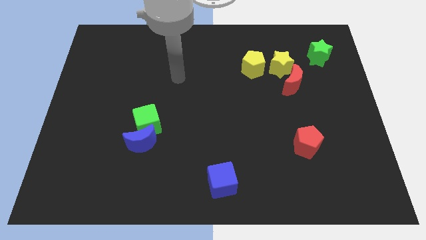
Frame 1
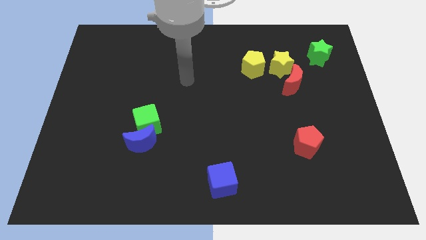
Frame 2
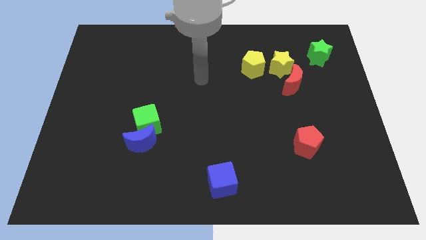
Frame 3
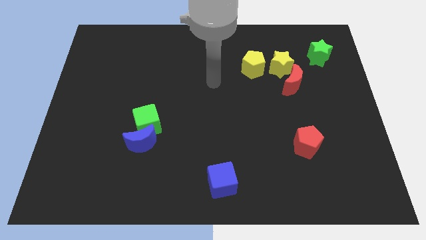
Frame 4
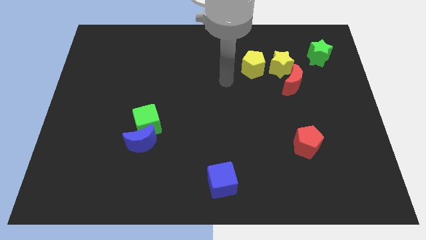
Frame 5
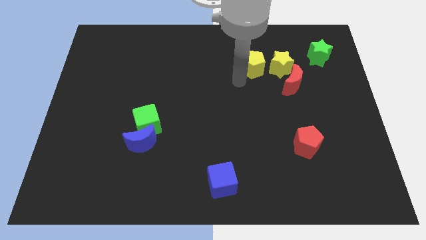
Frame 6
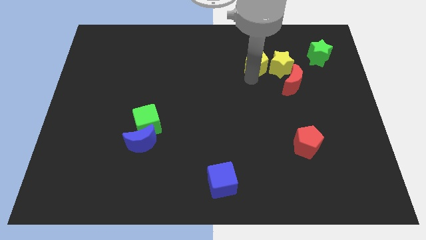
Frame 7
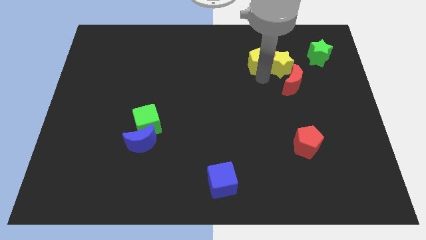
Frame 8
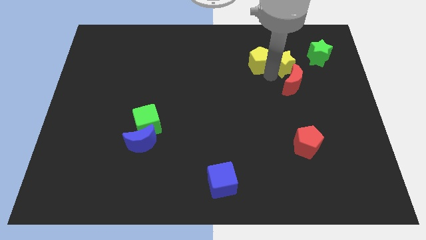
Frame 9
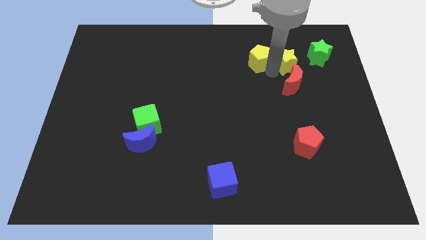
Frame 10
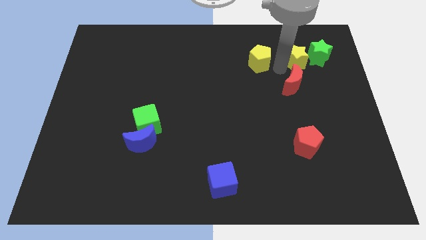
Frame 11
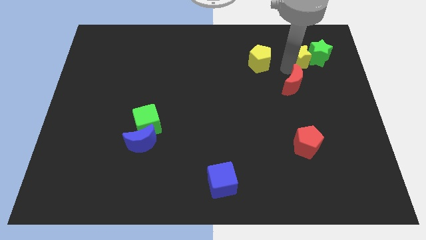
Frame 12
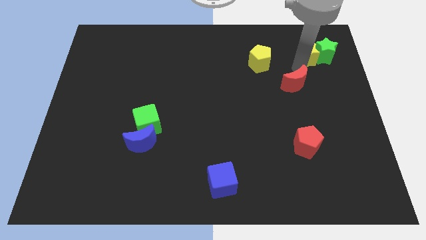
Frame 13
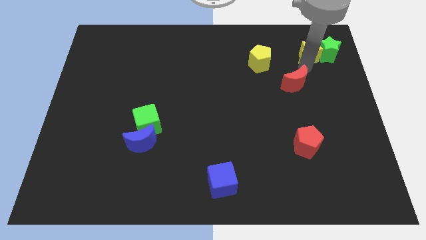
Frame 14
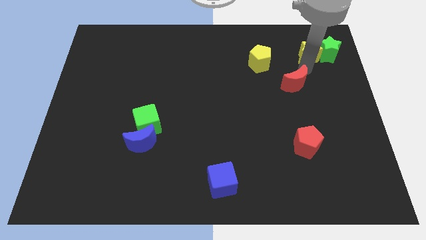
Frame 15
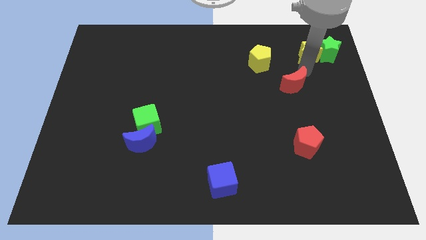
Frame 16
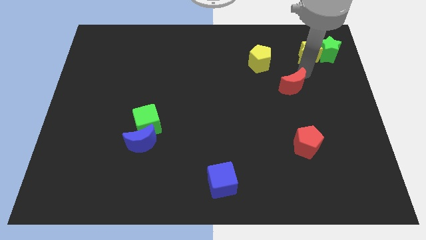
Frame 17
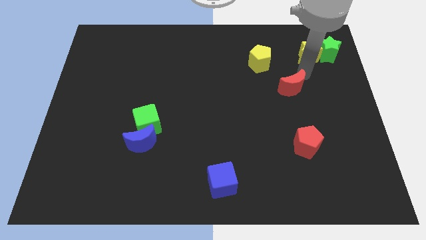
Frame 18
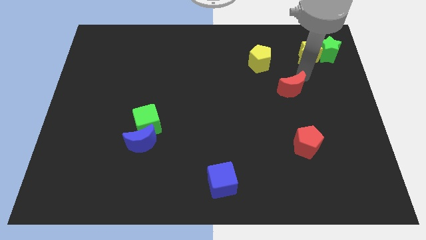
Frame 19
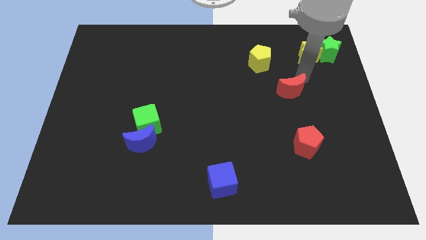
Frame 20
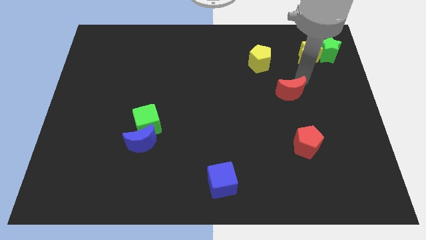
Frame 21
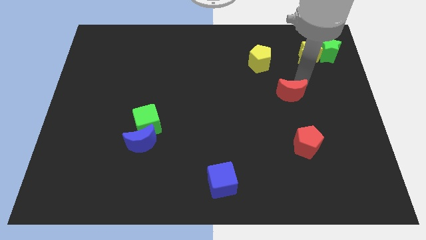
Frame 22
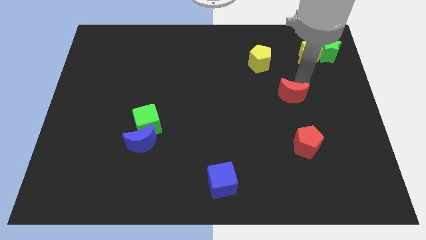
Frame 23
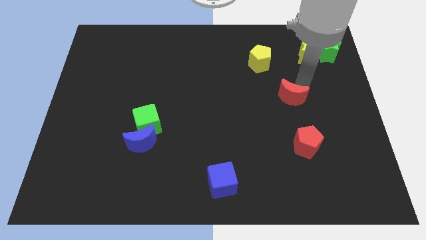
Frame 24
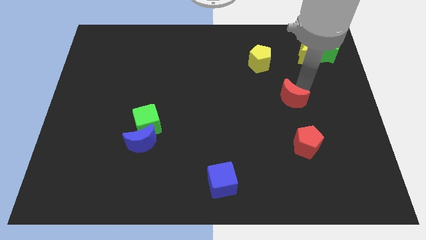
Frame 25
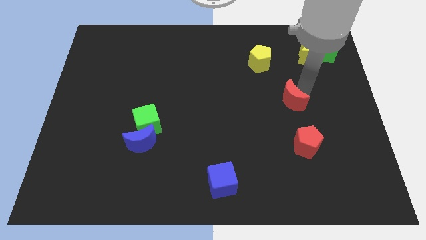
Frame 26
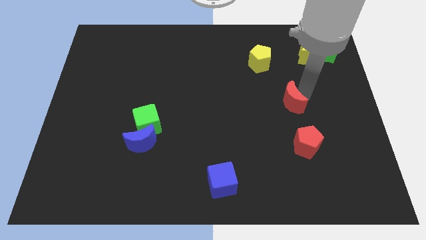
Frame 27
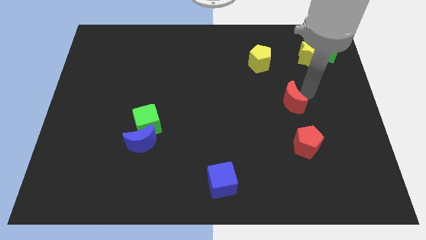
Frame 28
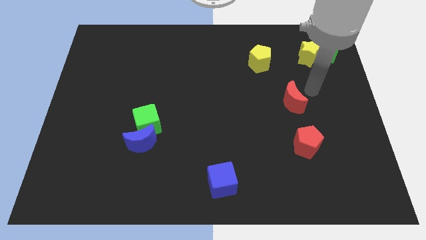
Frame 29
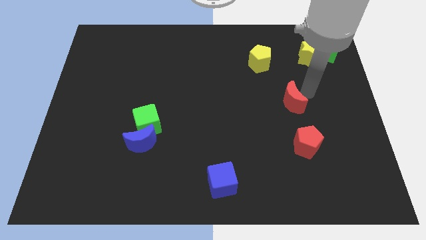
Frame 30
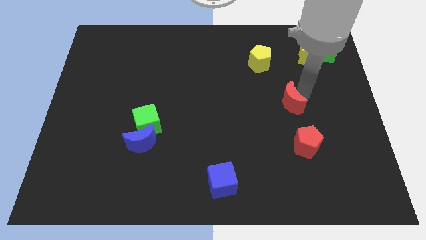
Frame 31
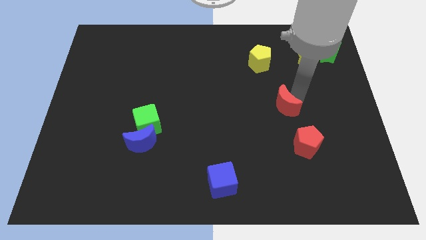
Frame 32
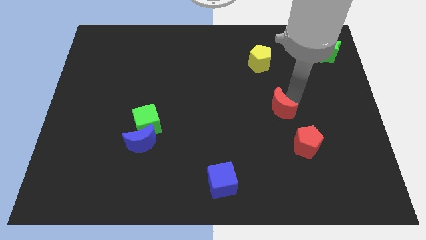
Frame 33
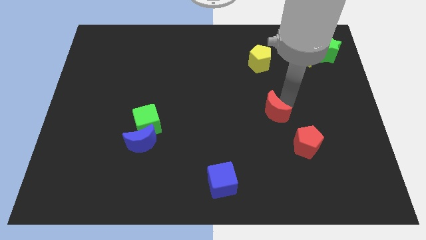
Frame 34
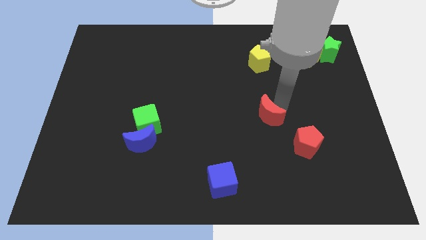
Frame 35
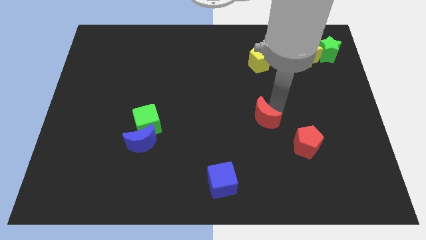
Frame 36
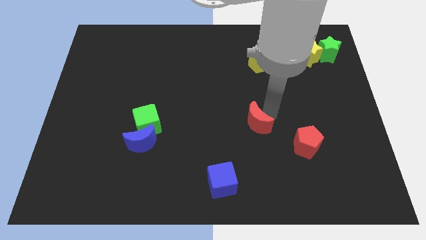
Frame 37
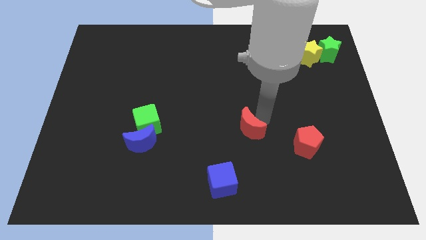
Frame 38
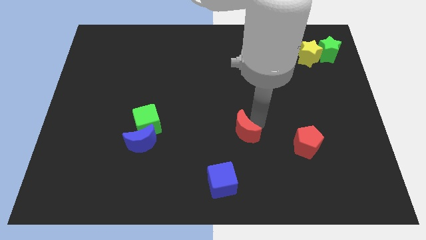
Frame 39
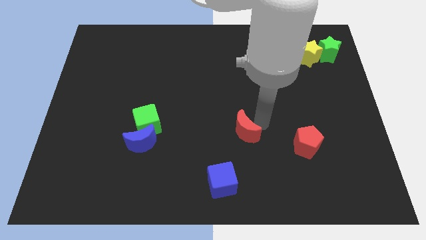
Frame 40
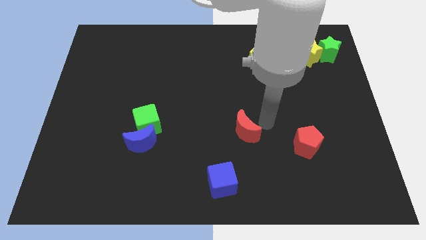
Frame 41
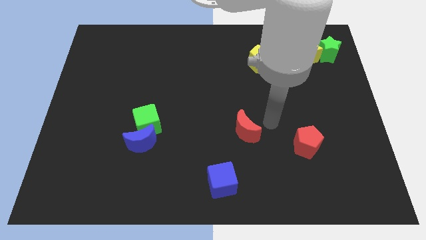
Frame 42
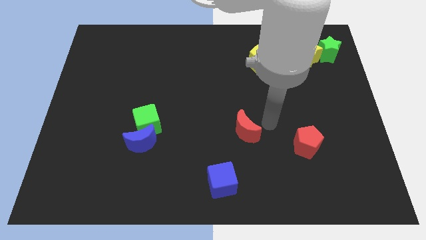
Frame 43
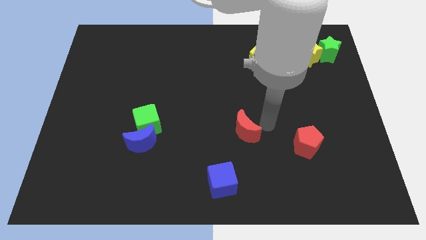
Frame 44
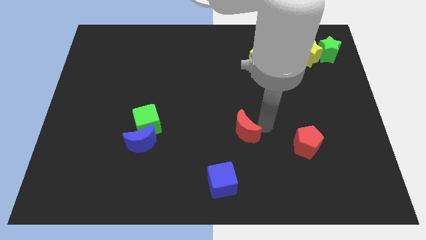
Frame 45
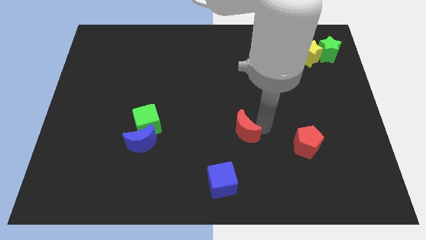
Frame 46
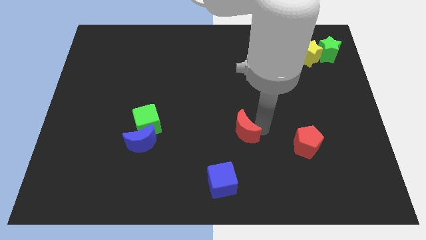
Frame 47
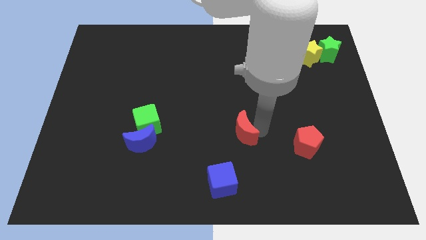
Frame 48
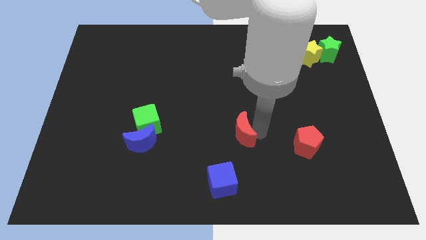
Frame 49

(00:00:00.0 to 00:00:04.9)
push the red moon downwards and left diagonally

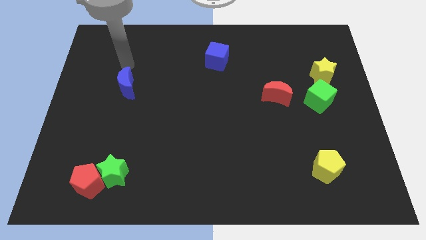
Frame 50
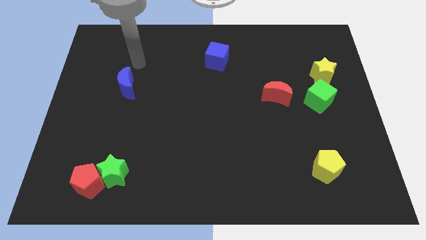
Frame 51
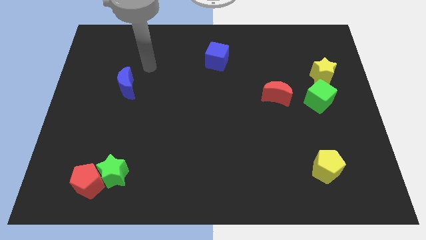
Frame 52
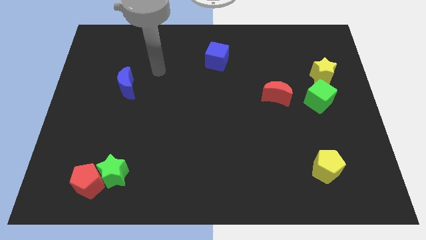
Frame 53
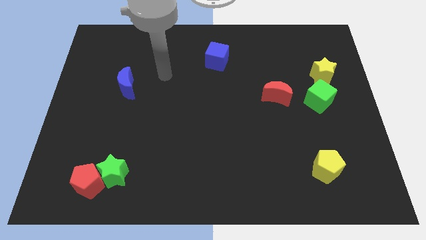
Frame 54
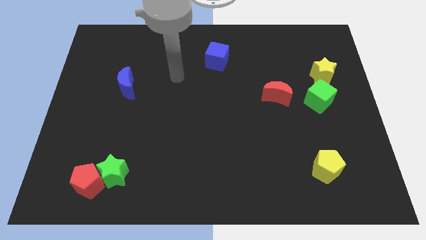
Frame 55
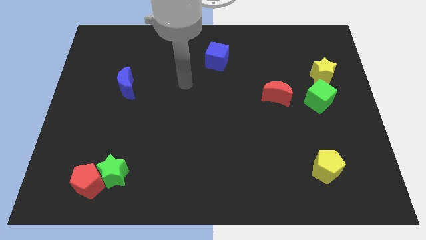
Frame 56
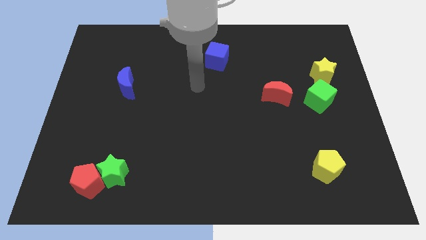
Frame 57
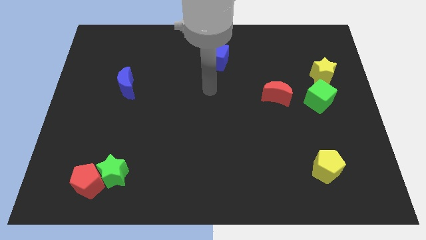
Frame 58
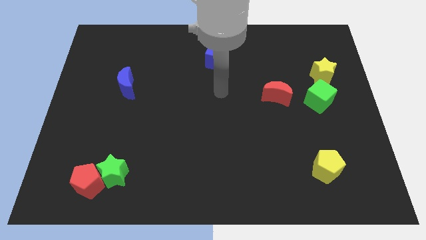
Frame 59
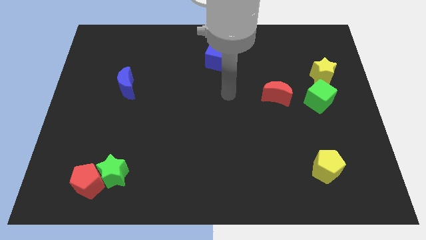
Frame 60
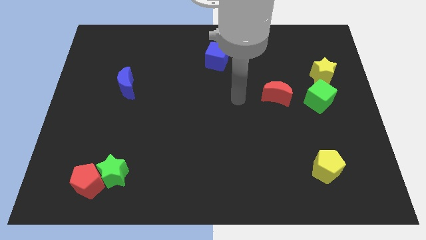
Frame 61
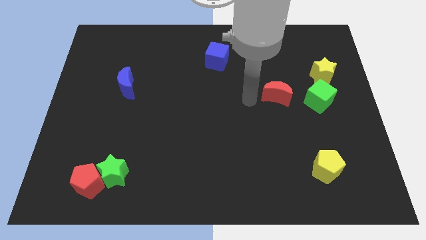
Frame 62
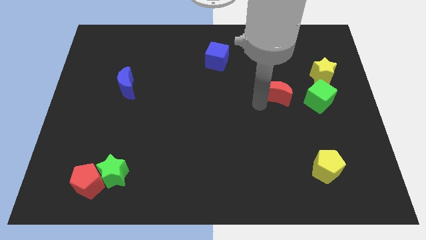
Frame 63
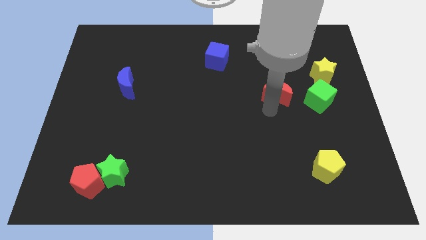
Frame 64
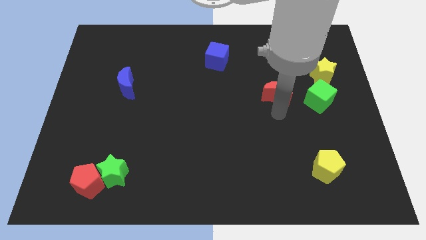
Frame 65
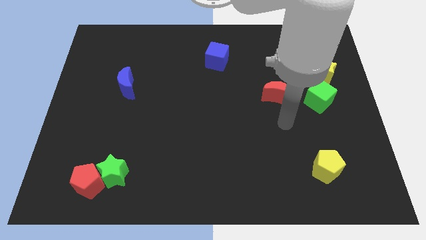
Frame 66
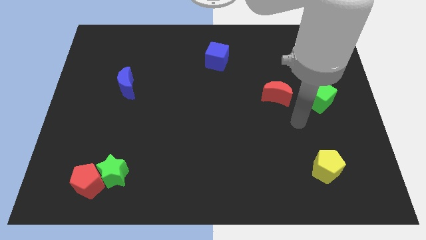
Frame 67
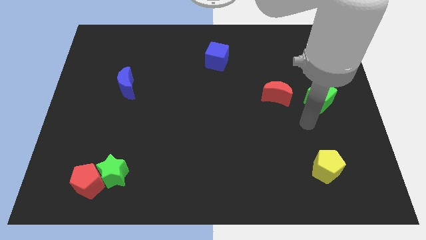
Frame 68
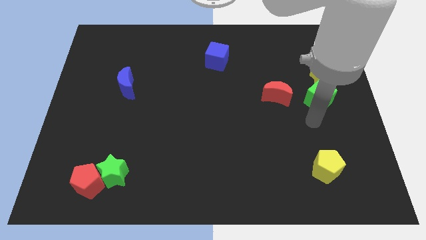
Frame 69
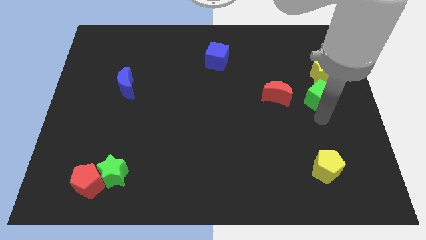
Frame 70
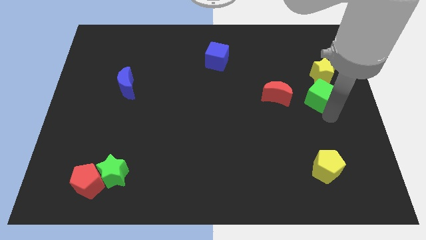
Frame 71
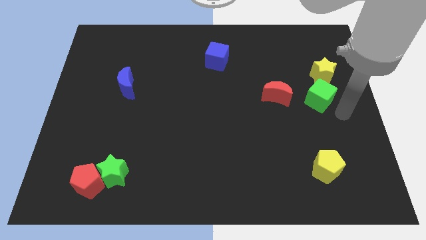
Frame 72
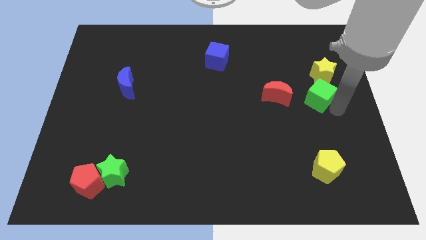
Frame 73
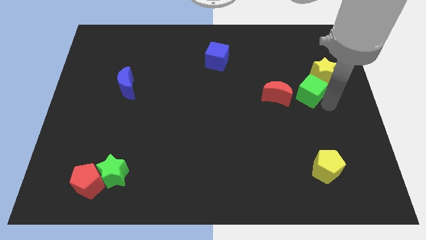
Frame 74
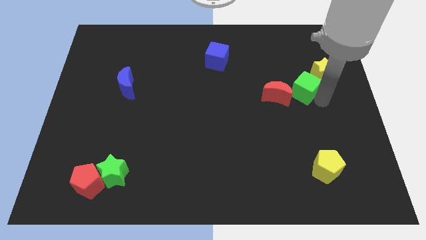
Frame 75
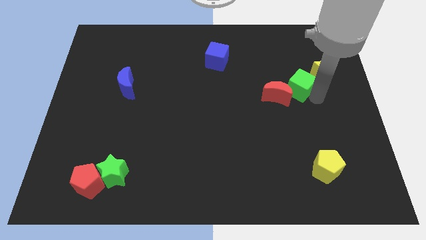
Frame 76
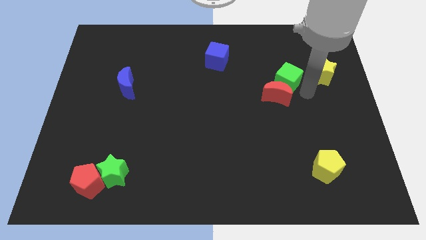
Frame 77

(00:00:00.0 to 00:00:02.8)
slightly push the green cube upwards and to the left diagonally

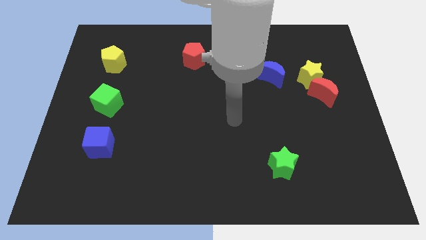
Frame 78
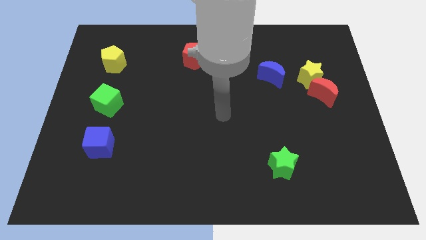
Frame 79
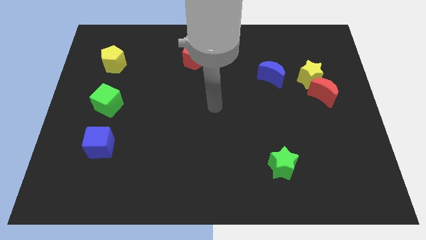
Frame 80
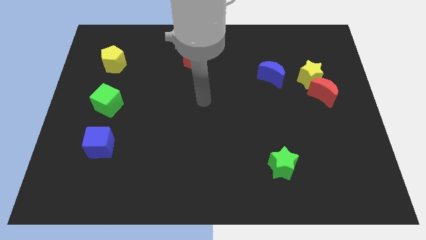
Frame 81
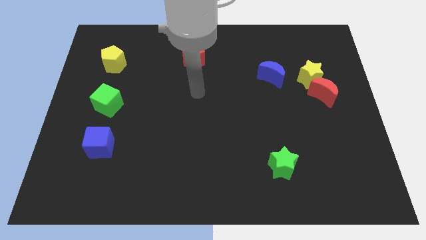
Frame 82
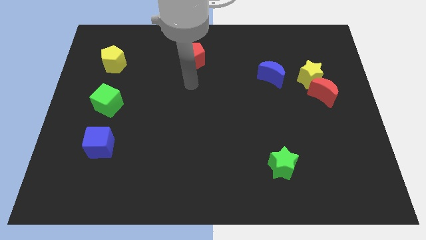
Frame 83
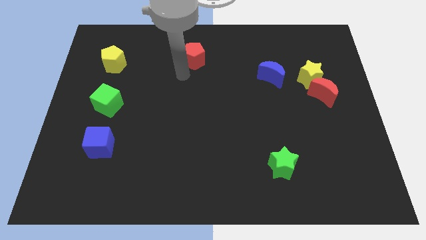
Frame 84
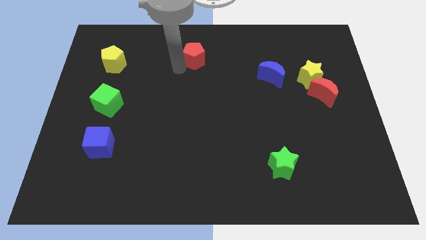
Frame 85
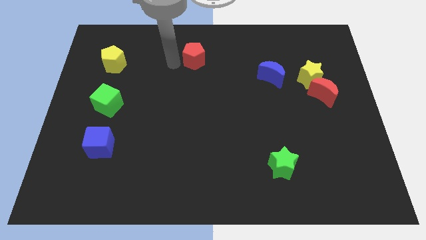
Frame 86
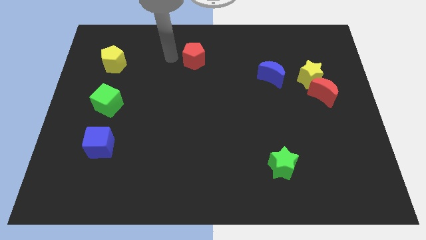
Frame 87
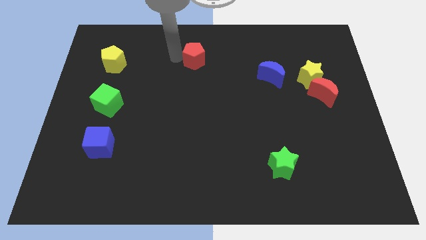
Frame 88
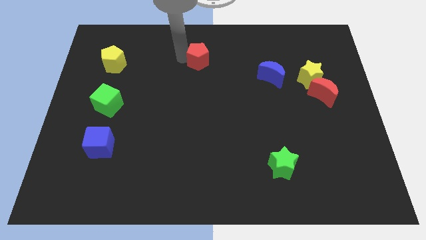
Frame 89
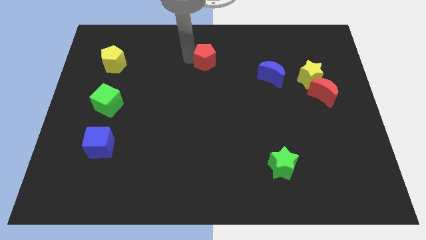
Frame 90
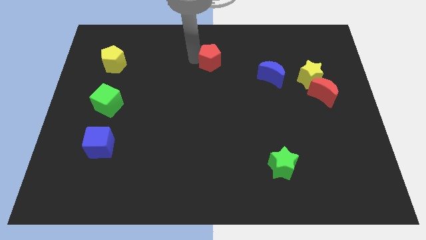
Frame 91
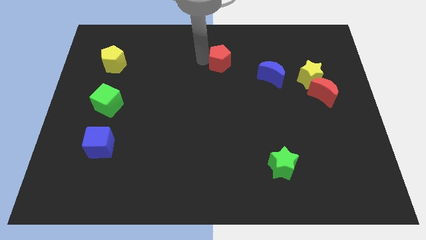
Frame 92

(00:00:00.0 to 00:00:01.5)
slightly slide the red pentagon right
